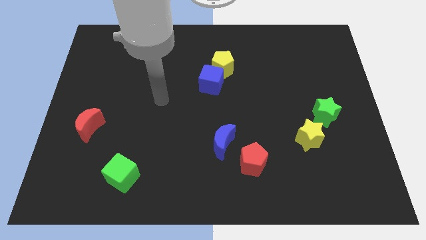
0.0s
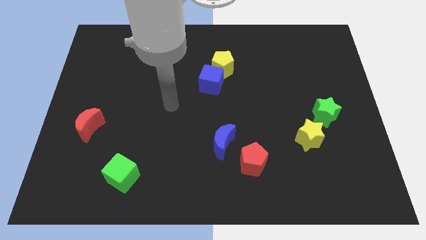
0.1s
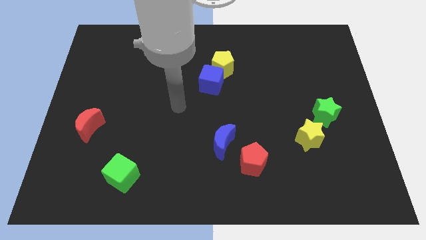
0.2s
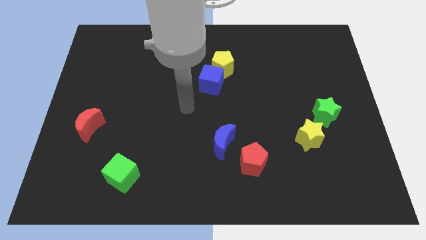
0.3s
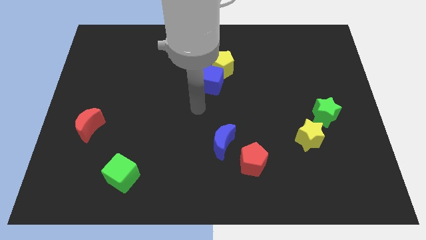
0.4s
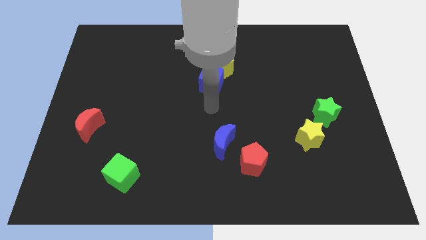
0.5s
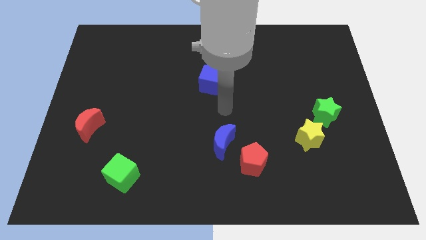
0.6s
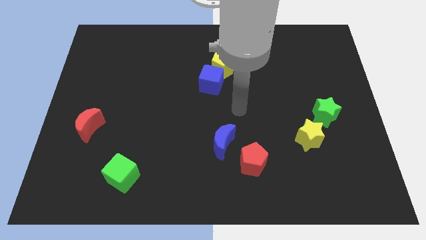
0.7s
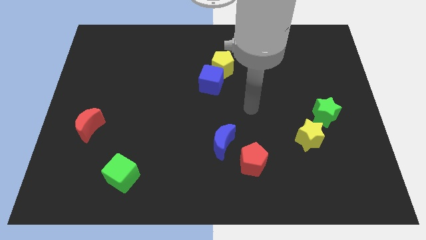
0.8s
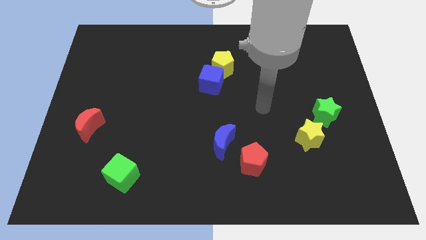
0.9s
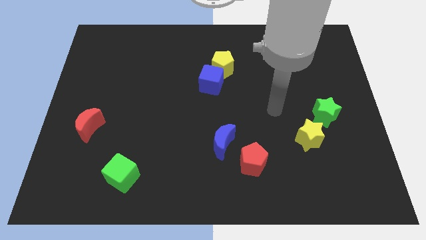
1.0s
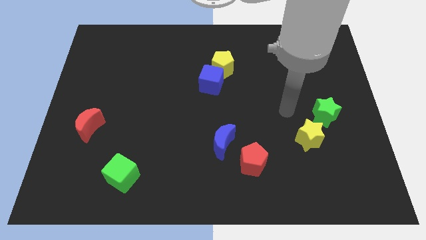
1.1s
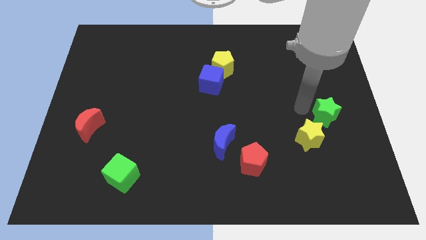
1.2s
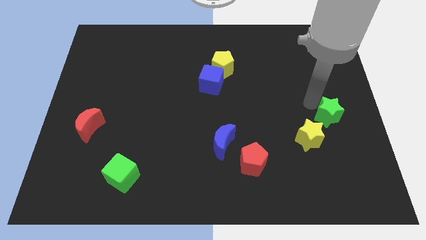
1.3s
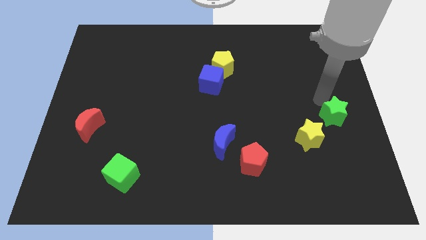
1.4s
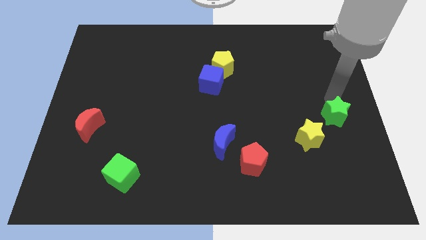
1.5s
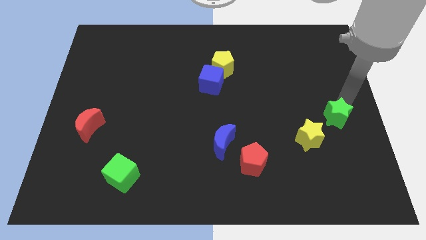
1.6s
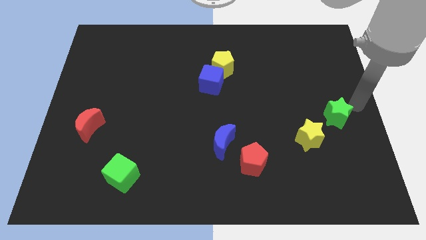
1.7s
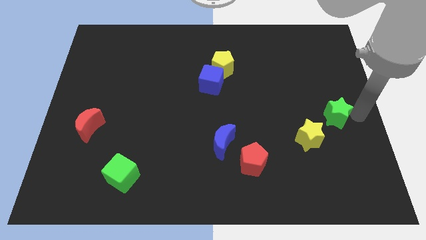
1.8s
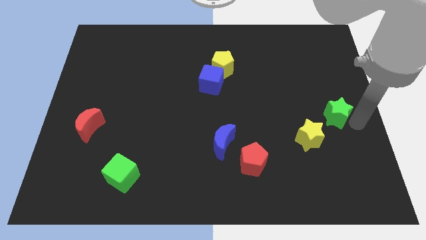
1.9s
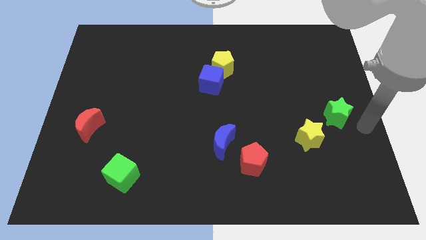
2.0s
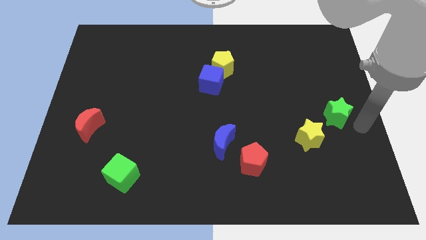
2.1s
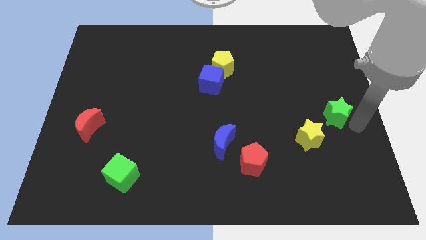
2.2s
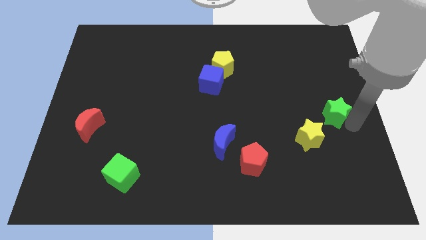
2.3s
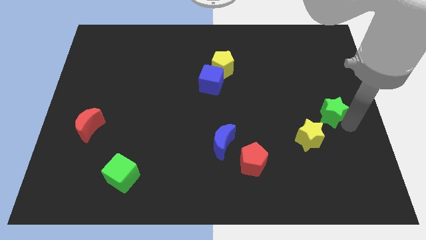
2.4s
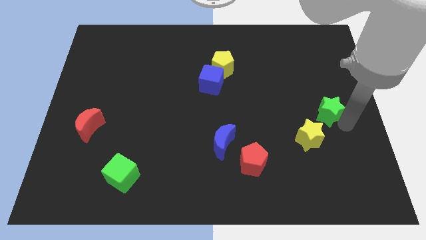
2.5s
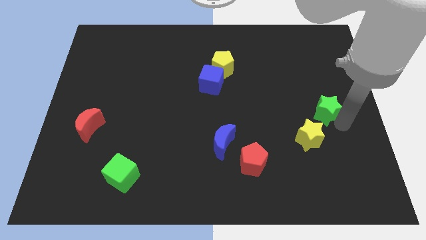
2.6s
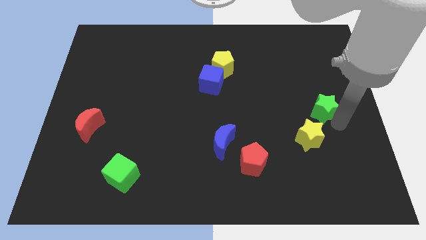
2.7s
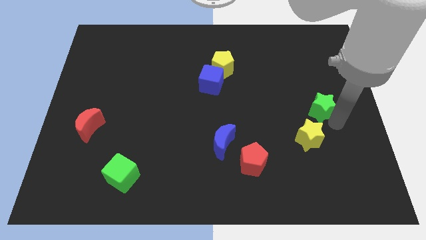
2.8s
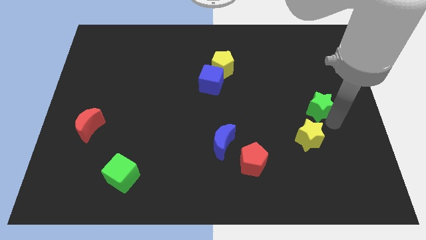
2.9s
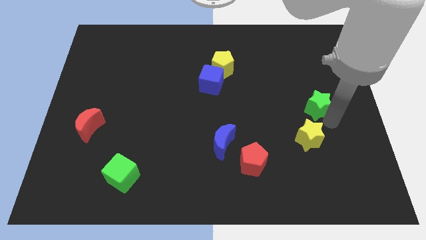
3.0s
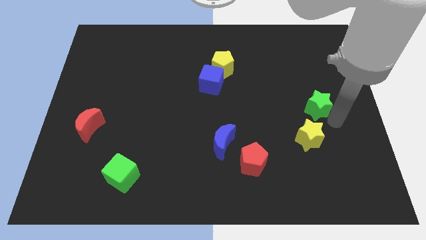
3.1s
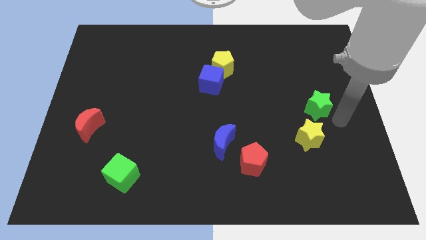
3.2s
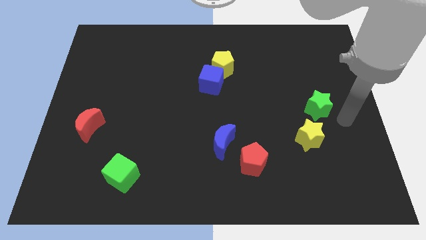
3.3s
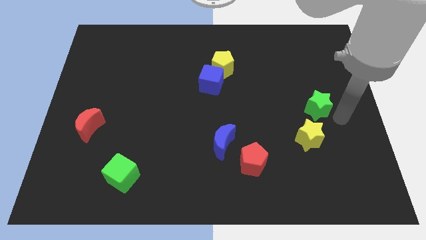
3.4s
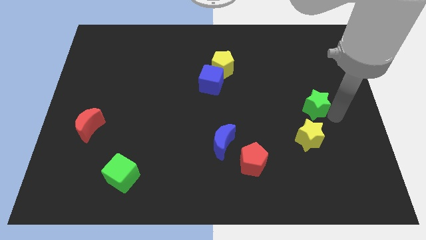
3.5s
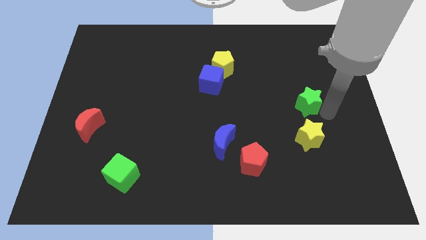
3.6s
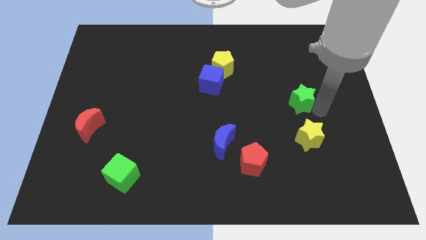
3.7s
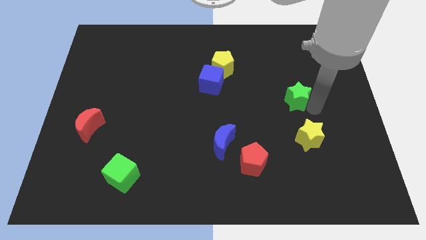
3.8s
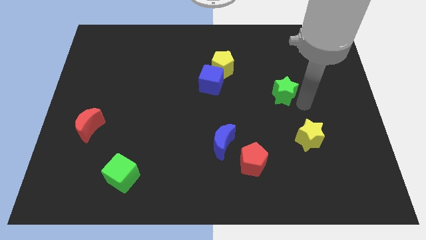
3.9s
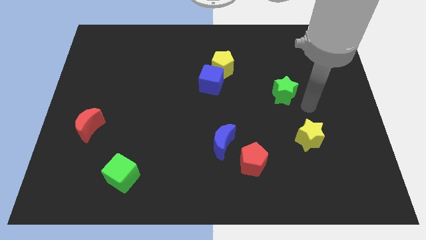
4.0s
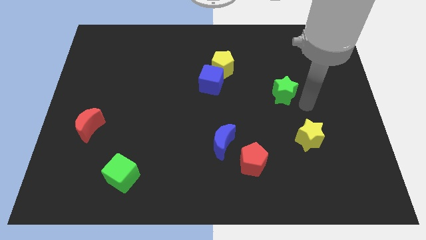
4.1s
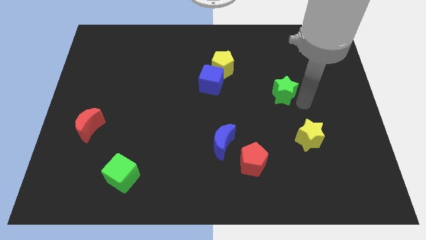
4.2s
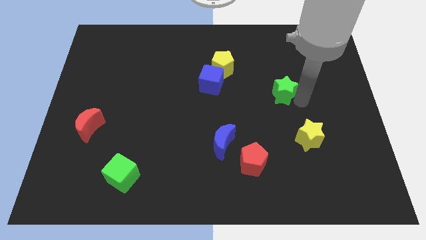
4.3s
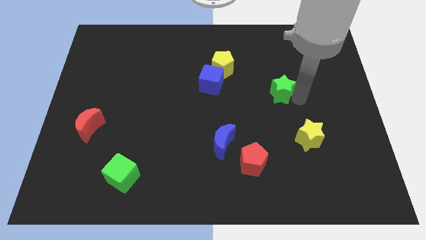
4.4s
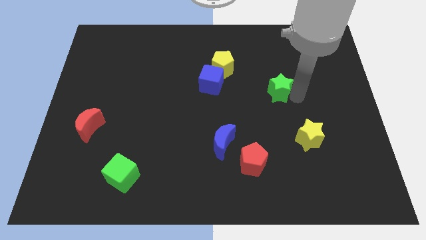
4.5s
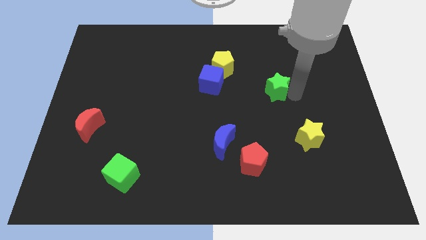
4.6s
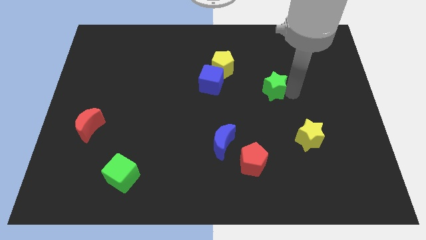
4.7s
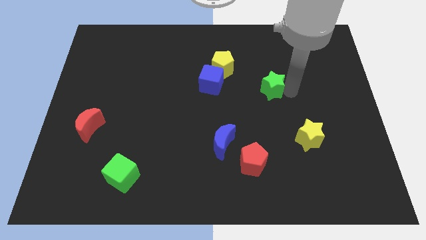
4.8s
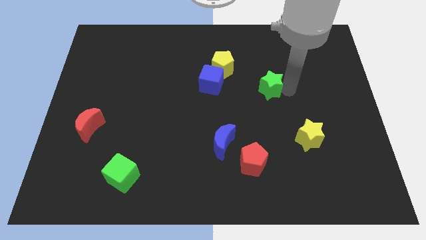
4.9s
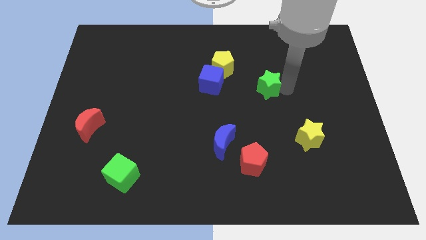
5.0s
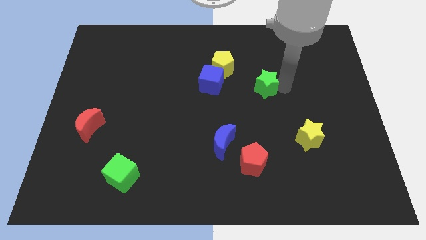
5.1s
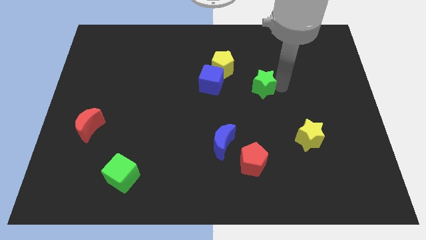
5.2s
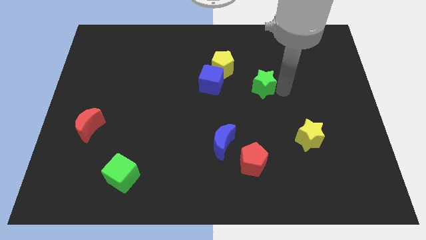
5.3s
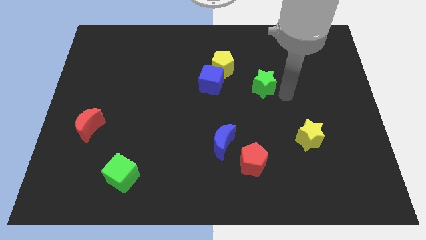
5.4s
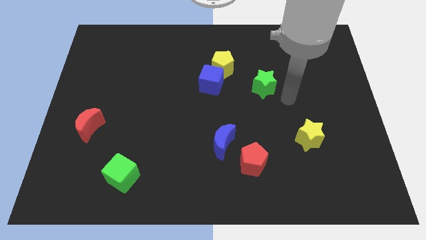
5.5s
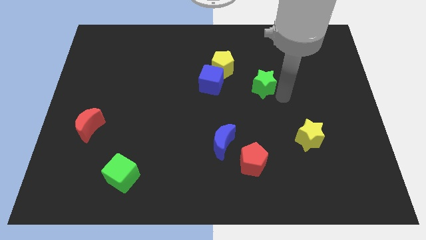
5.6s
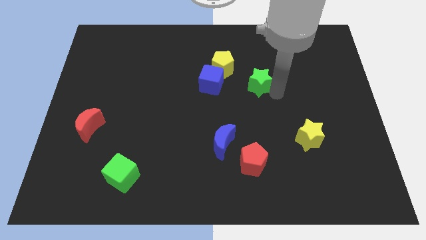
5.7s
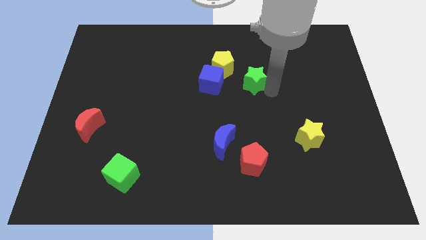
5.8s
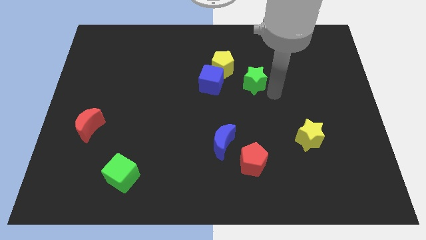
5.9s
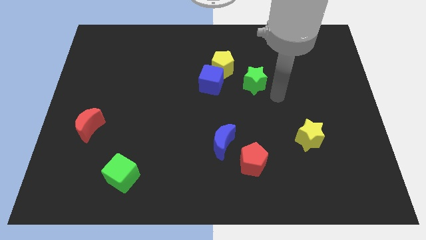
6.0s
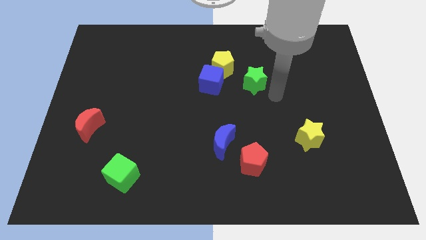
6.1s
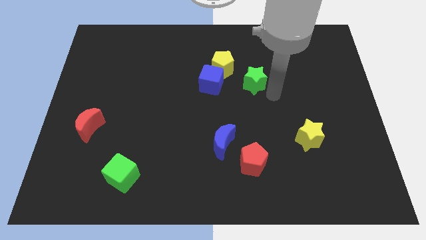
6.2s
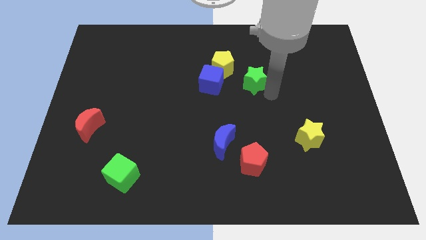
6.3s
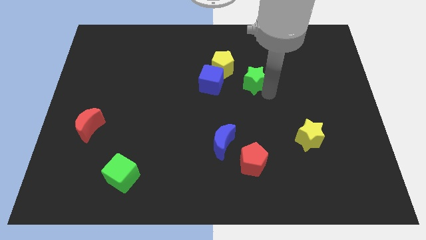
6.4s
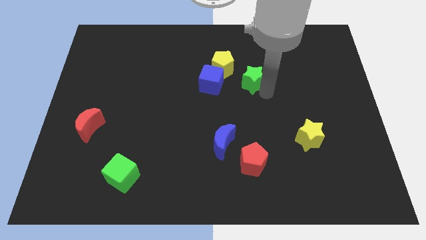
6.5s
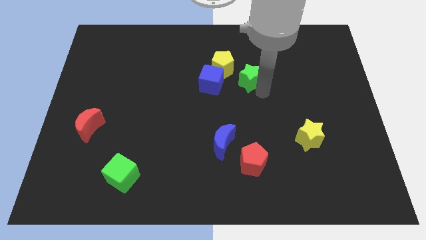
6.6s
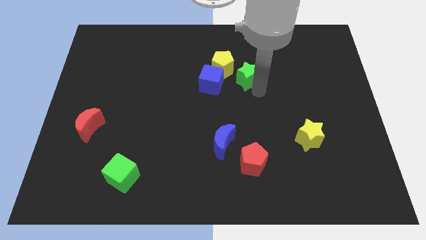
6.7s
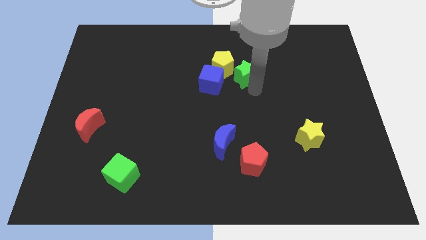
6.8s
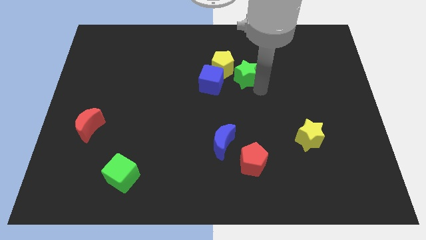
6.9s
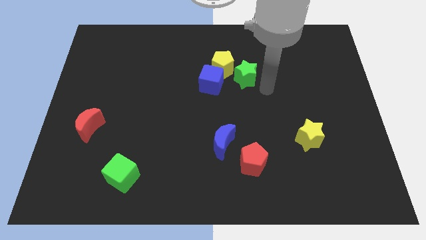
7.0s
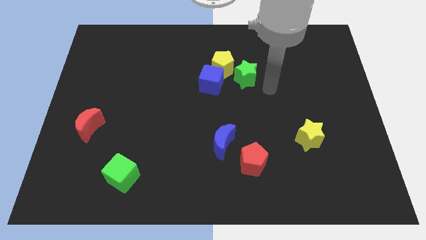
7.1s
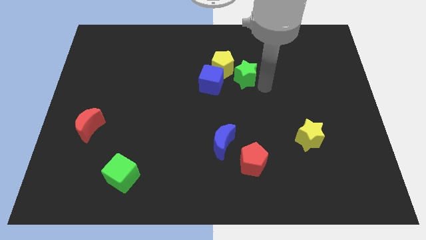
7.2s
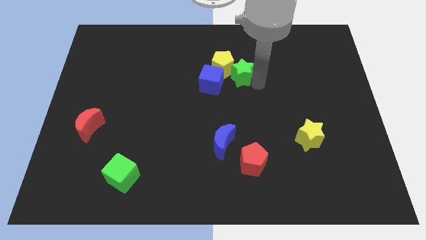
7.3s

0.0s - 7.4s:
push the green star close to the yellow pentagon
